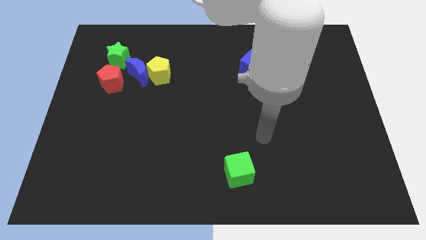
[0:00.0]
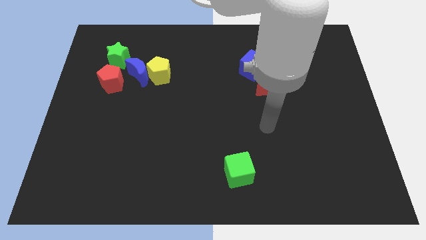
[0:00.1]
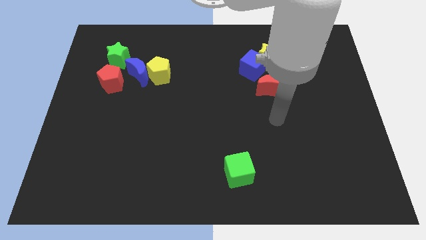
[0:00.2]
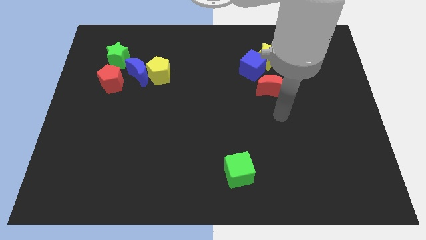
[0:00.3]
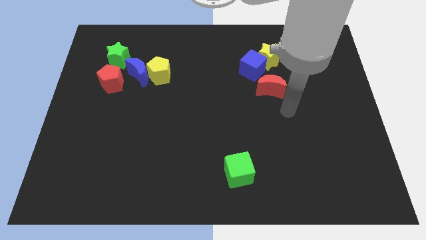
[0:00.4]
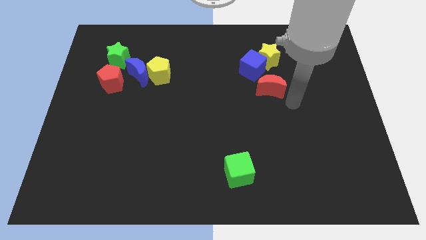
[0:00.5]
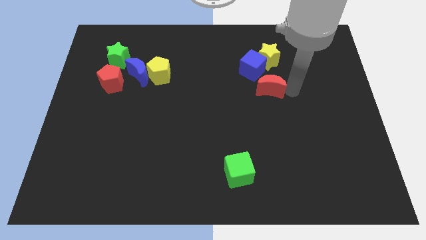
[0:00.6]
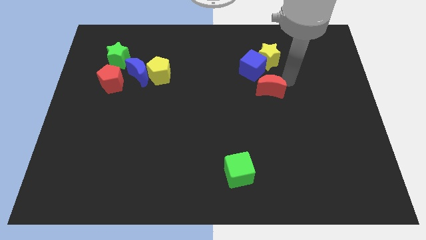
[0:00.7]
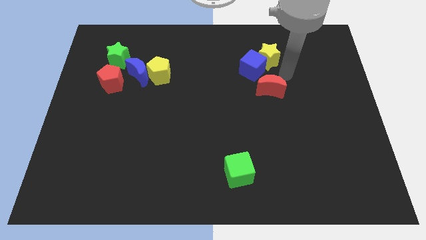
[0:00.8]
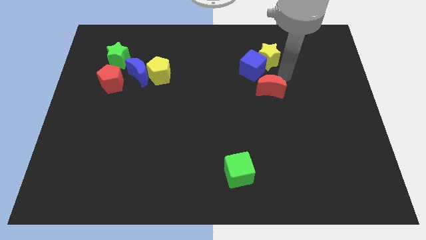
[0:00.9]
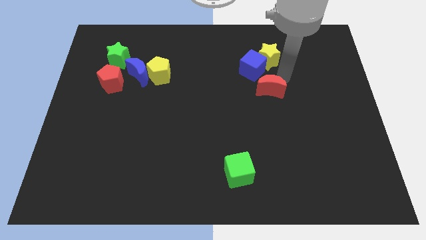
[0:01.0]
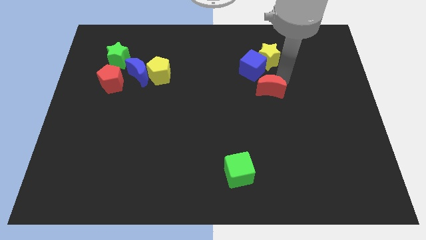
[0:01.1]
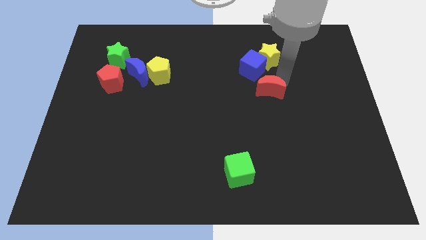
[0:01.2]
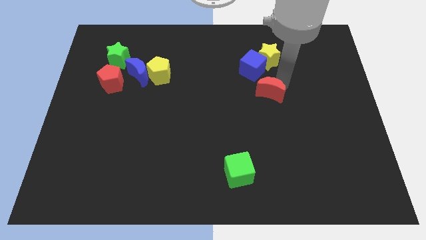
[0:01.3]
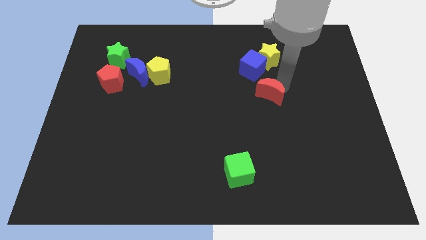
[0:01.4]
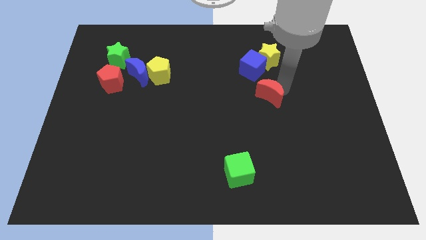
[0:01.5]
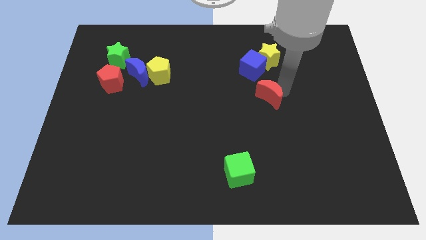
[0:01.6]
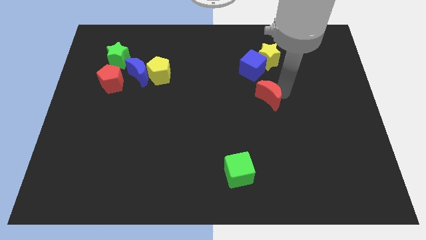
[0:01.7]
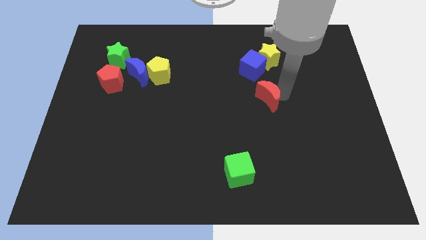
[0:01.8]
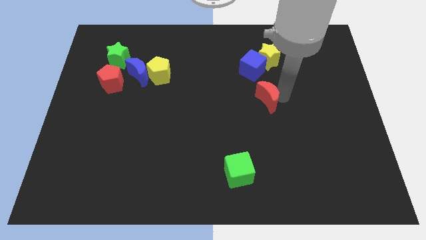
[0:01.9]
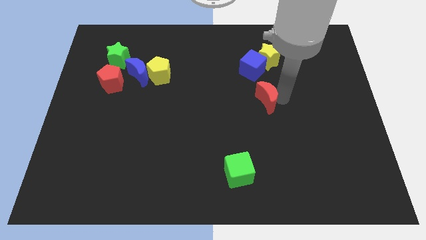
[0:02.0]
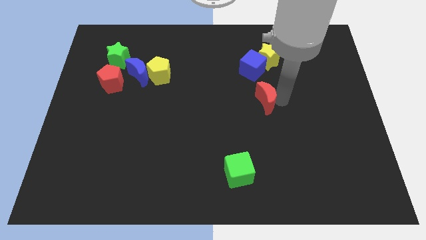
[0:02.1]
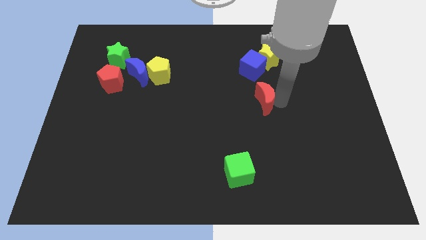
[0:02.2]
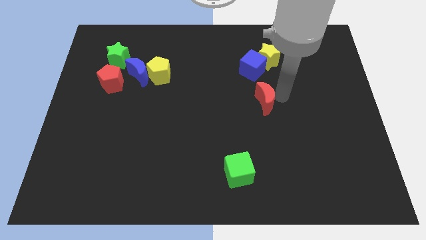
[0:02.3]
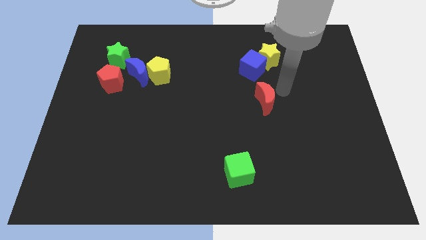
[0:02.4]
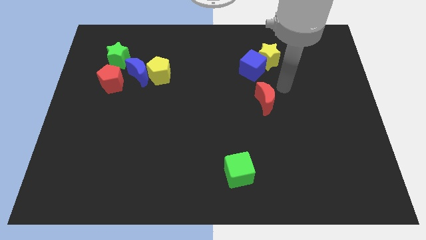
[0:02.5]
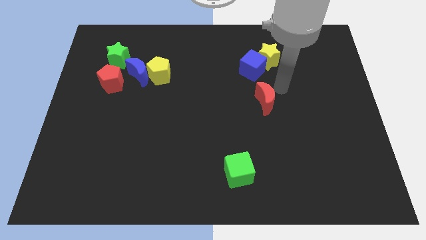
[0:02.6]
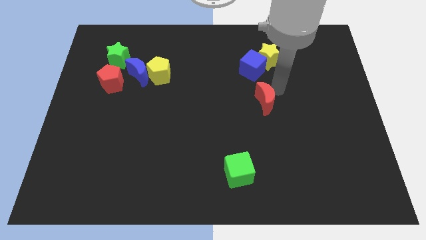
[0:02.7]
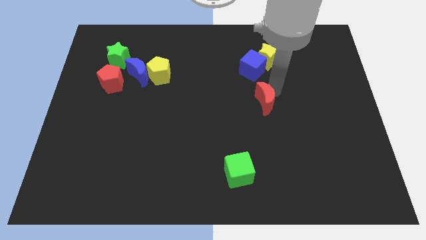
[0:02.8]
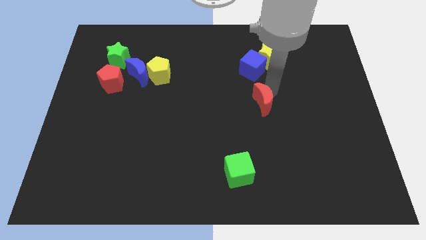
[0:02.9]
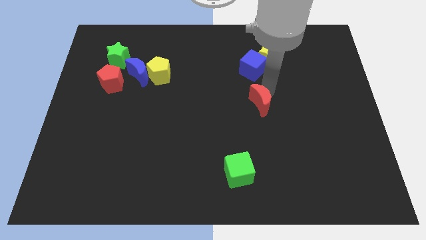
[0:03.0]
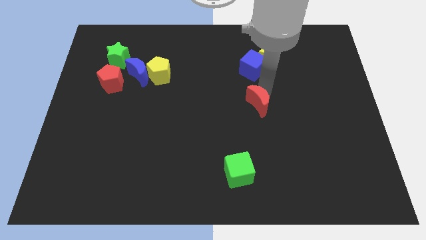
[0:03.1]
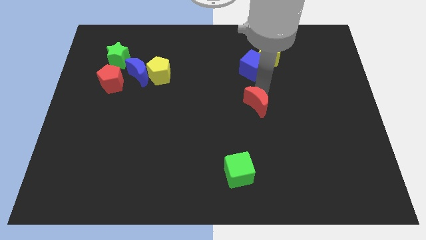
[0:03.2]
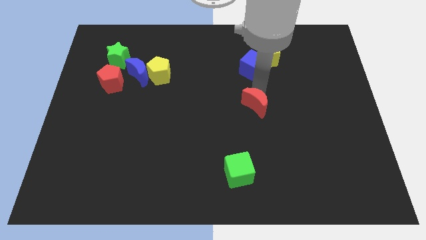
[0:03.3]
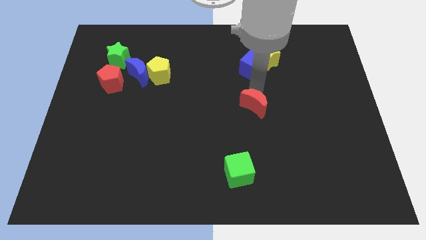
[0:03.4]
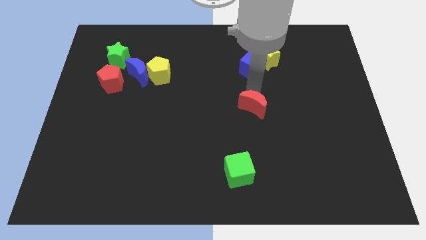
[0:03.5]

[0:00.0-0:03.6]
slightly slide the red moon diagonally downwards and to the left

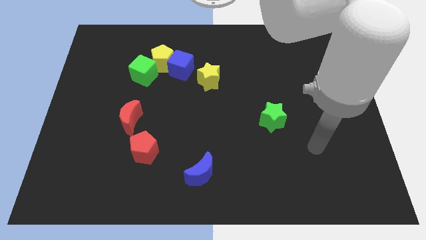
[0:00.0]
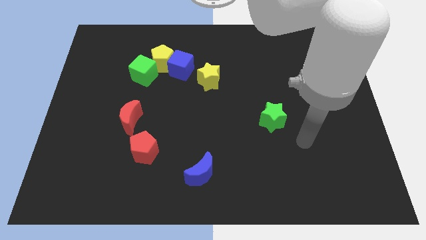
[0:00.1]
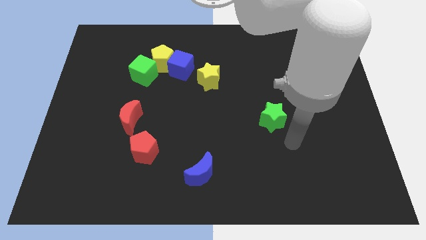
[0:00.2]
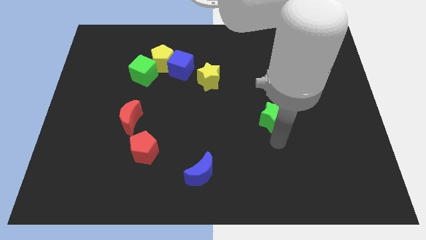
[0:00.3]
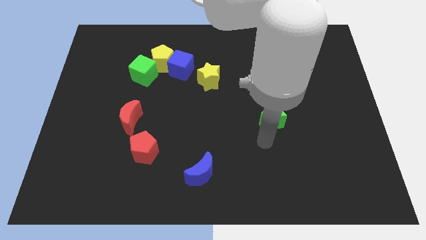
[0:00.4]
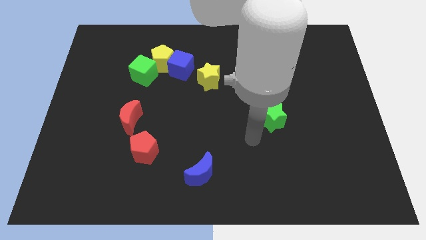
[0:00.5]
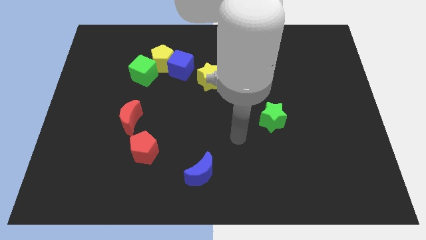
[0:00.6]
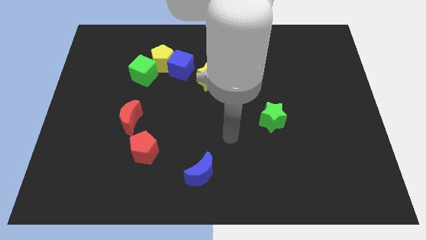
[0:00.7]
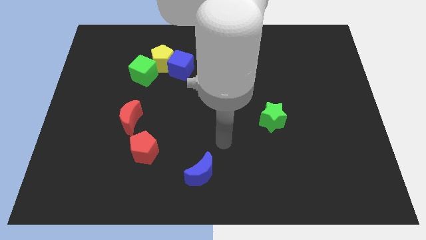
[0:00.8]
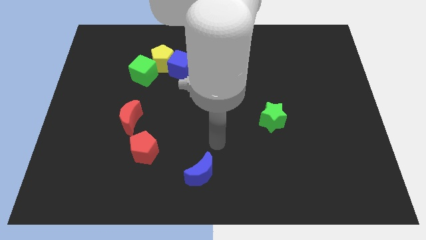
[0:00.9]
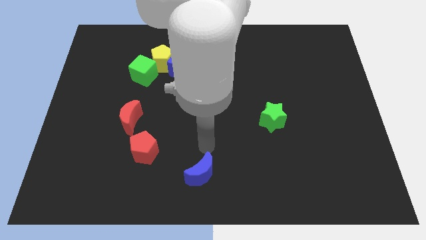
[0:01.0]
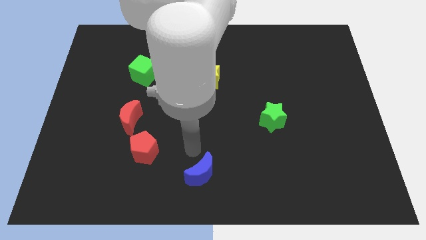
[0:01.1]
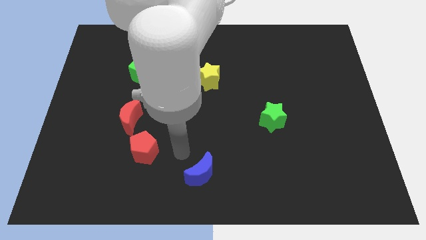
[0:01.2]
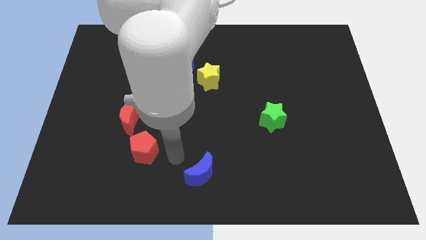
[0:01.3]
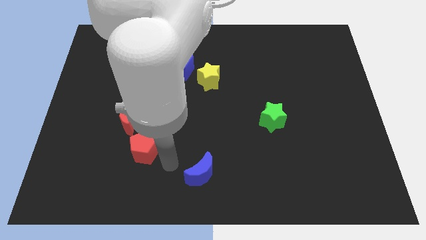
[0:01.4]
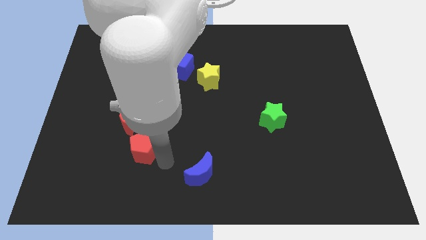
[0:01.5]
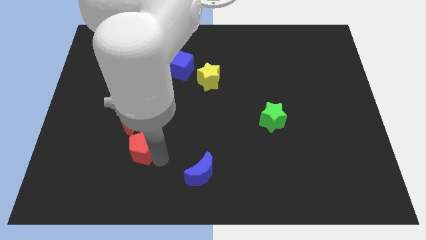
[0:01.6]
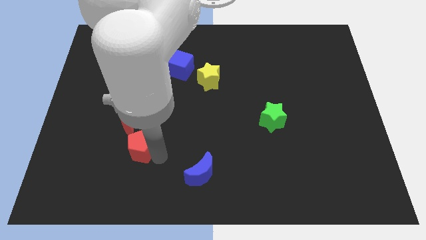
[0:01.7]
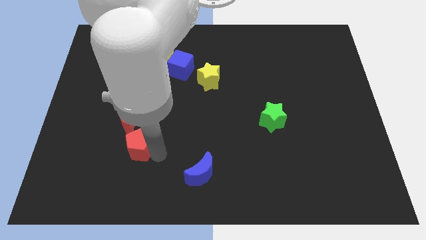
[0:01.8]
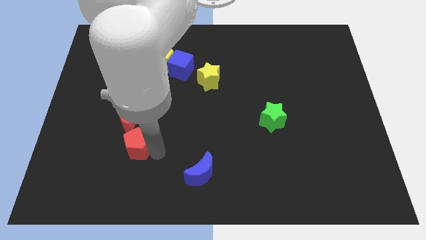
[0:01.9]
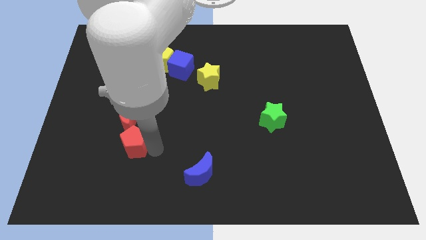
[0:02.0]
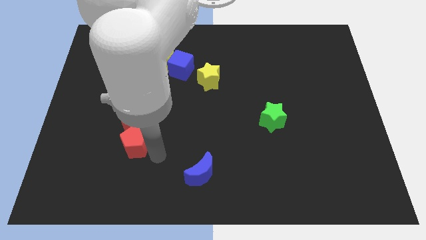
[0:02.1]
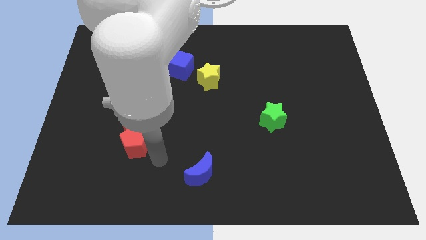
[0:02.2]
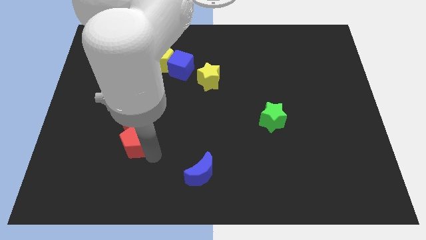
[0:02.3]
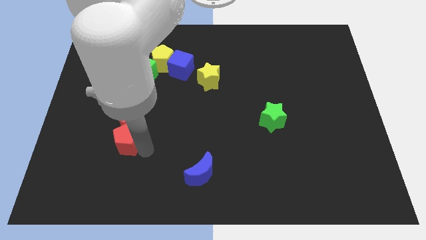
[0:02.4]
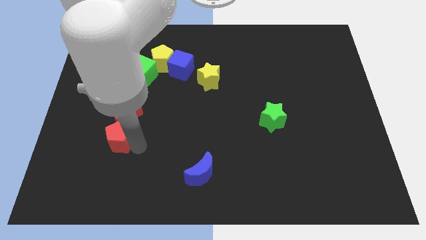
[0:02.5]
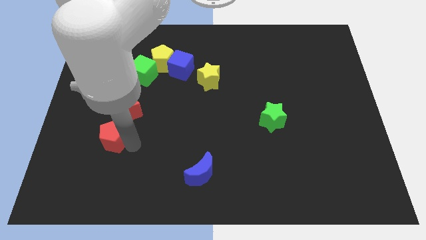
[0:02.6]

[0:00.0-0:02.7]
move the red pentagon somewhat upwards and to the left

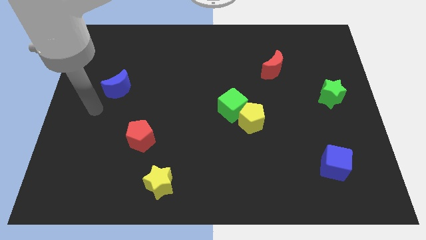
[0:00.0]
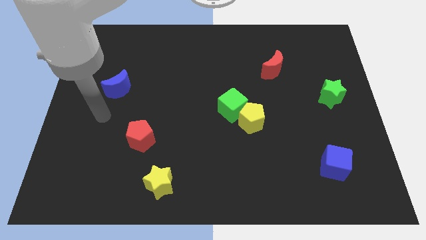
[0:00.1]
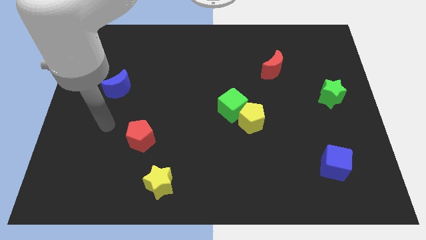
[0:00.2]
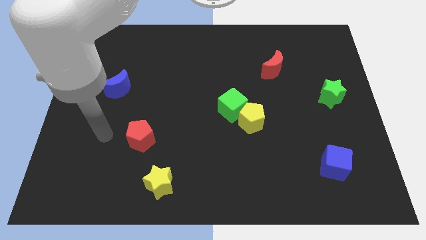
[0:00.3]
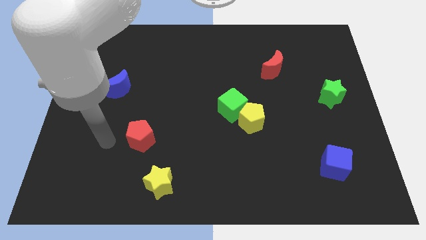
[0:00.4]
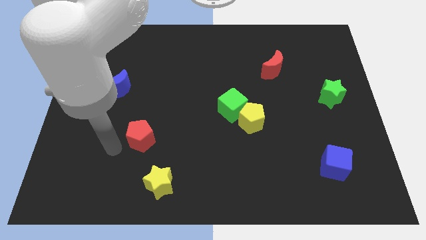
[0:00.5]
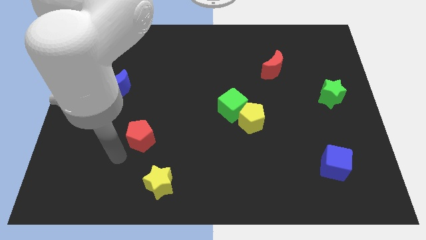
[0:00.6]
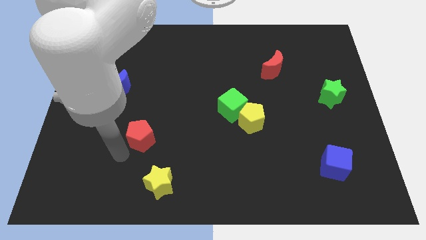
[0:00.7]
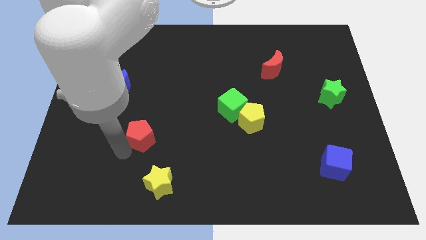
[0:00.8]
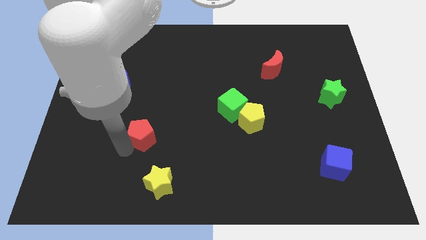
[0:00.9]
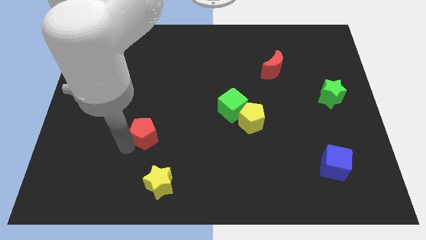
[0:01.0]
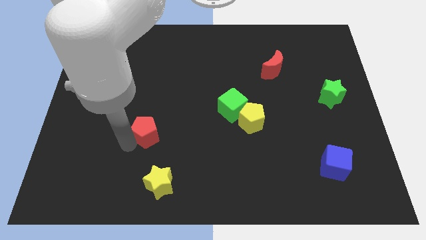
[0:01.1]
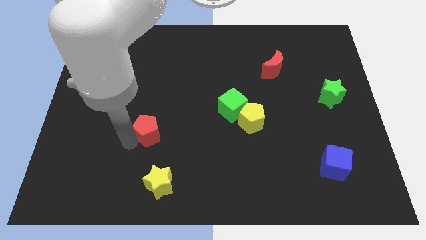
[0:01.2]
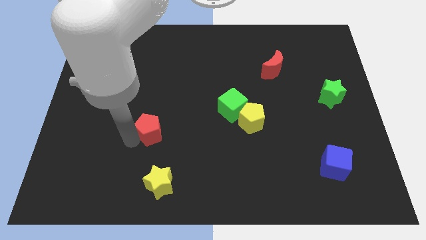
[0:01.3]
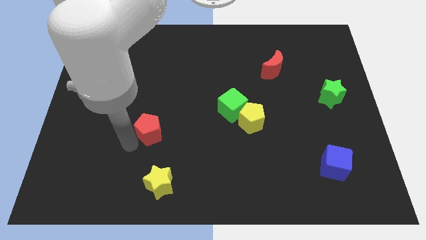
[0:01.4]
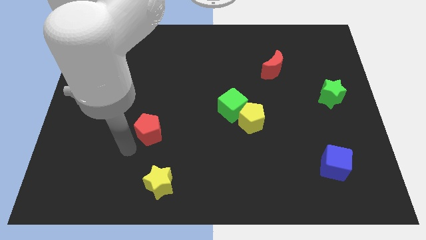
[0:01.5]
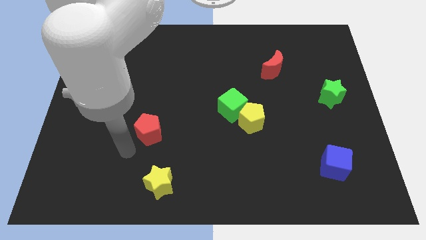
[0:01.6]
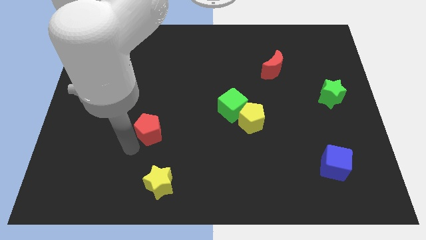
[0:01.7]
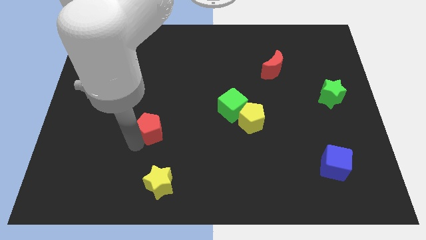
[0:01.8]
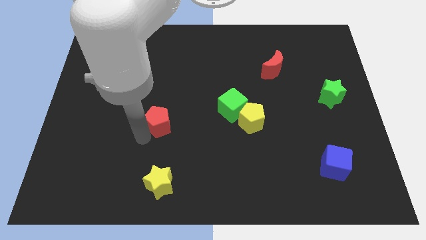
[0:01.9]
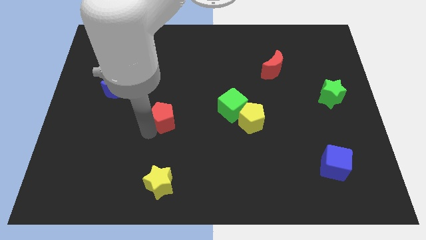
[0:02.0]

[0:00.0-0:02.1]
move the red pentagon a little diagonally upwards and right
